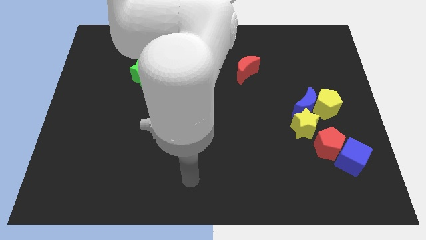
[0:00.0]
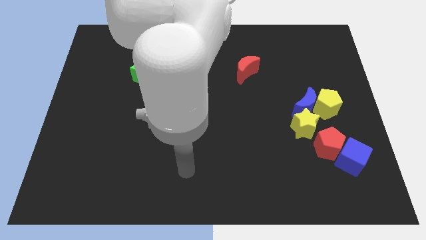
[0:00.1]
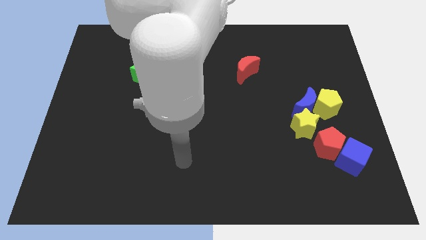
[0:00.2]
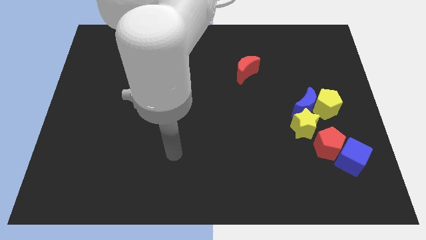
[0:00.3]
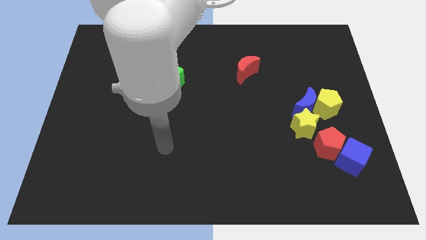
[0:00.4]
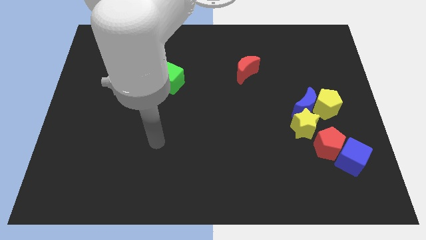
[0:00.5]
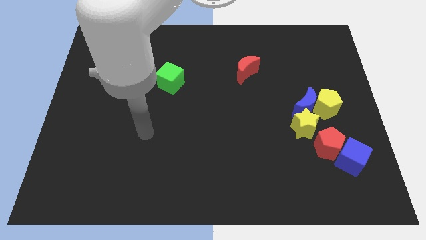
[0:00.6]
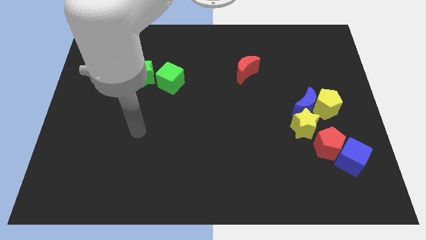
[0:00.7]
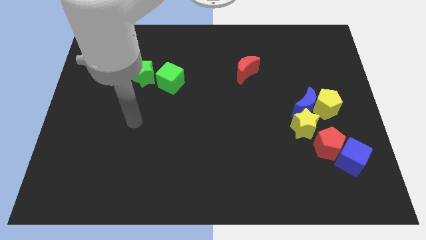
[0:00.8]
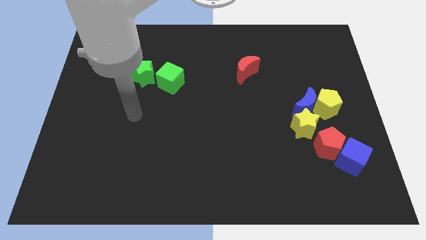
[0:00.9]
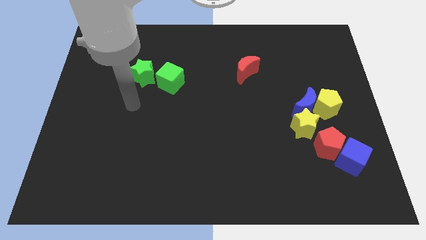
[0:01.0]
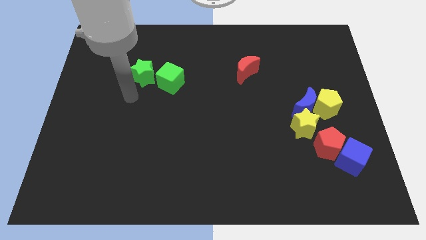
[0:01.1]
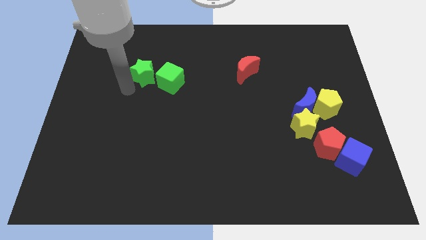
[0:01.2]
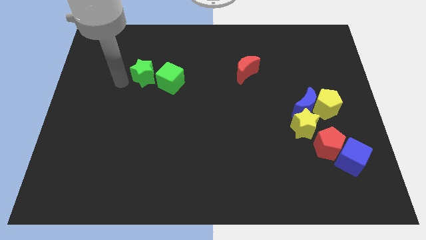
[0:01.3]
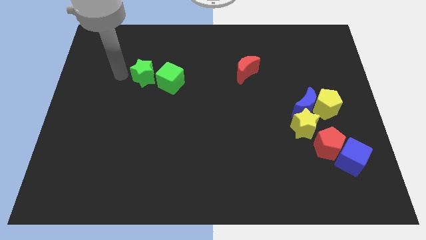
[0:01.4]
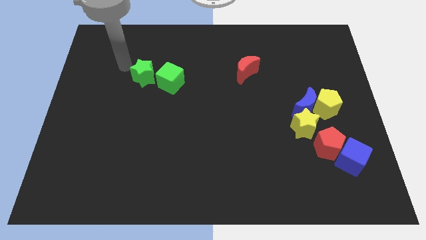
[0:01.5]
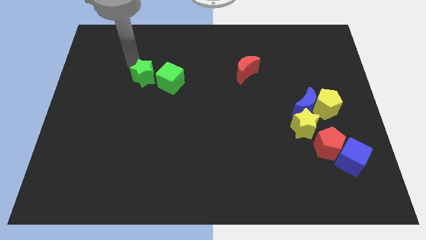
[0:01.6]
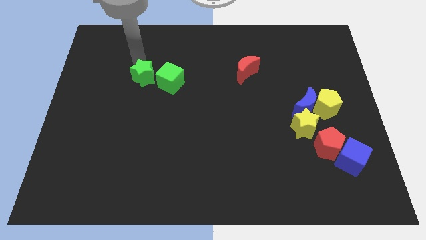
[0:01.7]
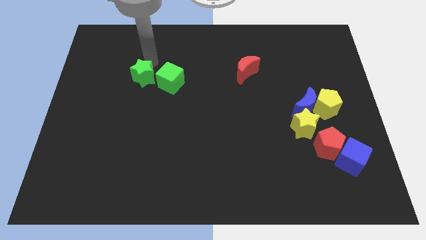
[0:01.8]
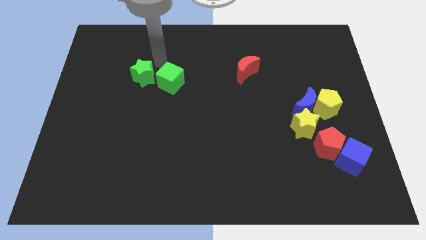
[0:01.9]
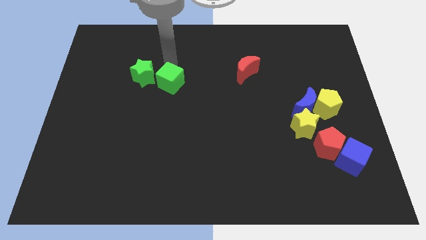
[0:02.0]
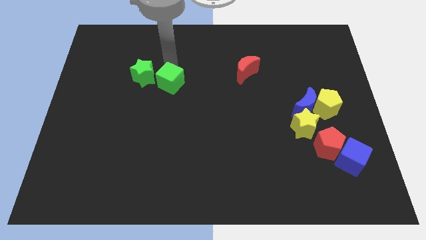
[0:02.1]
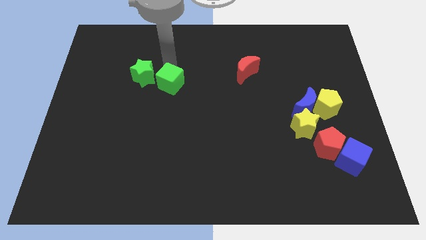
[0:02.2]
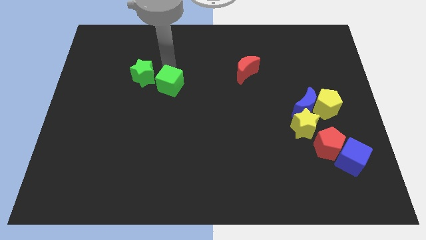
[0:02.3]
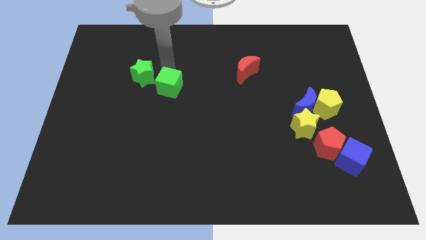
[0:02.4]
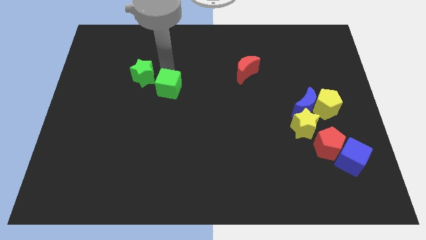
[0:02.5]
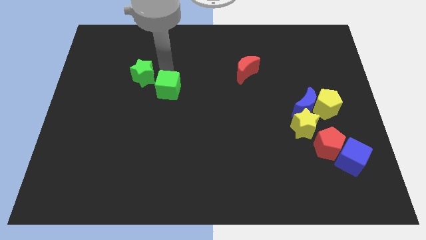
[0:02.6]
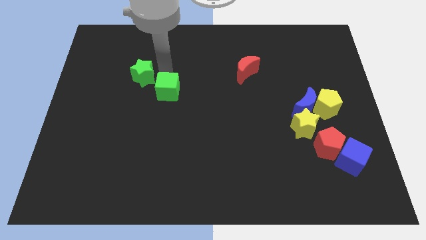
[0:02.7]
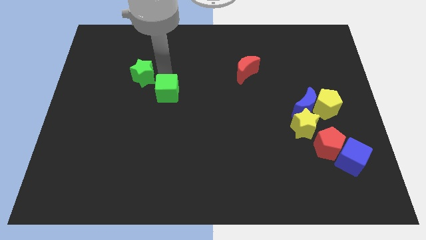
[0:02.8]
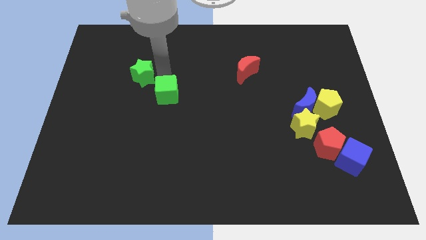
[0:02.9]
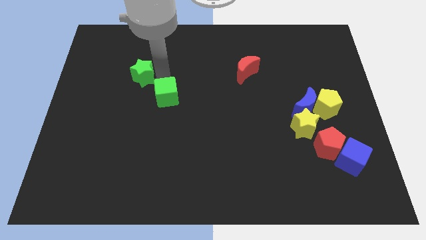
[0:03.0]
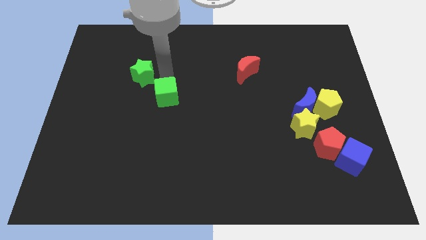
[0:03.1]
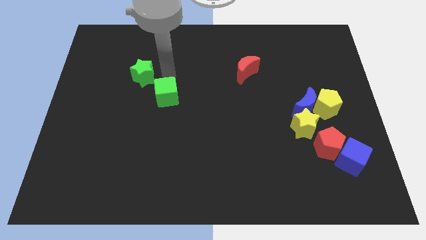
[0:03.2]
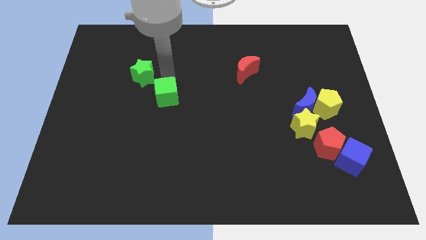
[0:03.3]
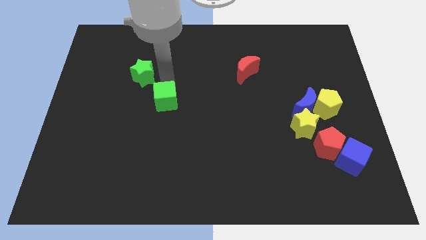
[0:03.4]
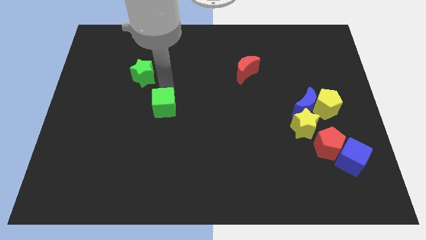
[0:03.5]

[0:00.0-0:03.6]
slightly slide the green cube downwards

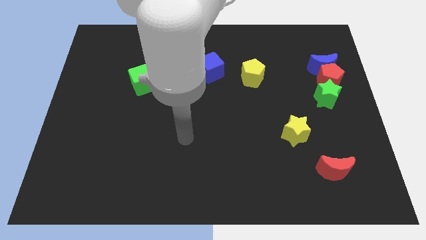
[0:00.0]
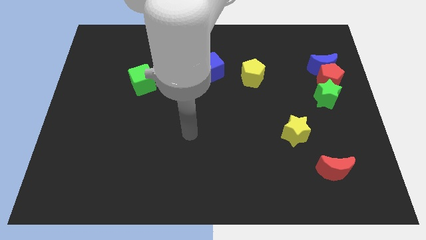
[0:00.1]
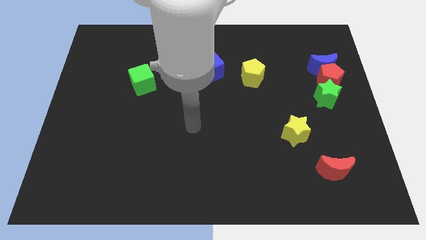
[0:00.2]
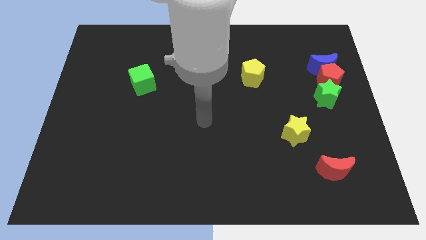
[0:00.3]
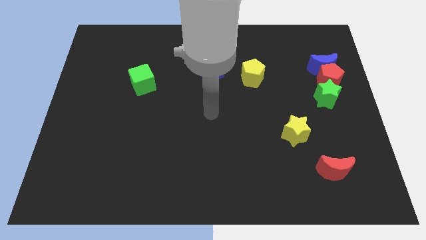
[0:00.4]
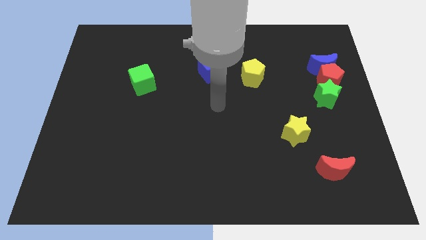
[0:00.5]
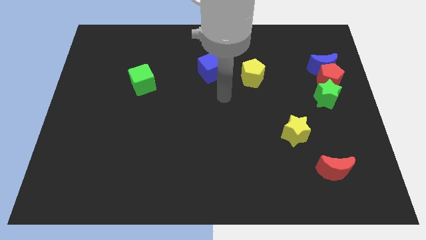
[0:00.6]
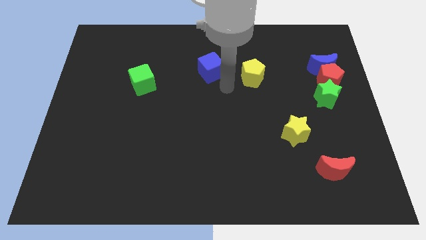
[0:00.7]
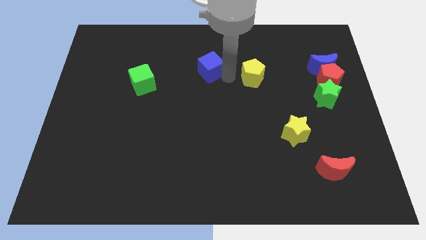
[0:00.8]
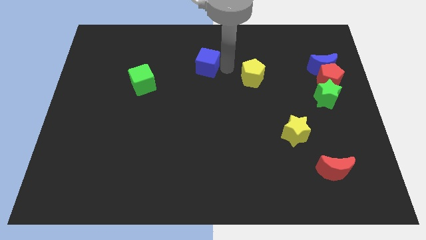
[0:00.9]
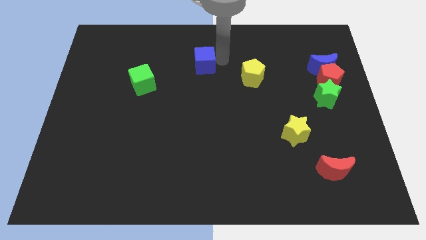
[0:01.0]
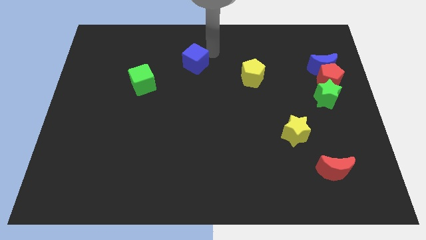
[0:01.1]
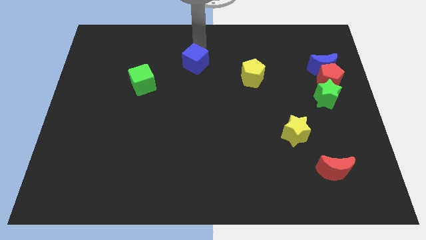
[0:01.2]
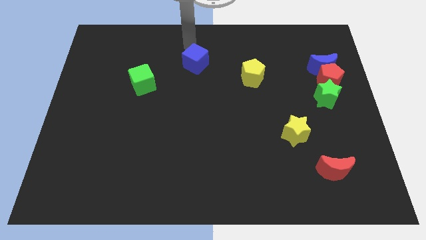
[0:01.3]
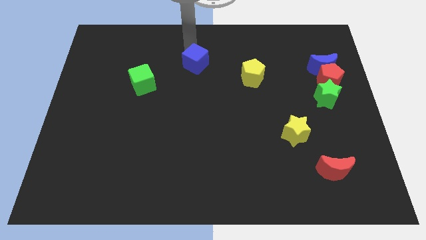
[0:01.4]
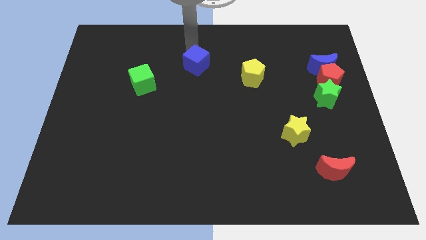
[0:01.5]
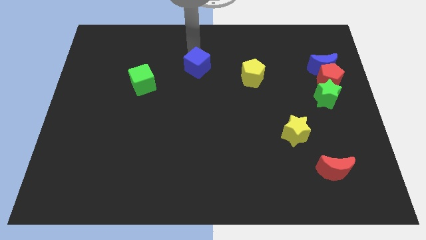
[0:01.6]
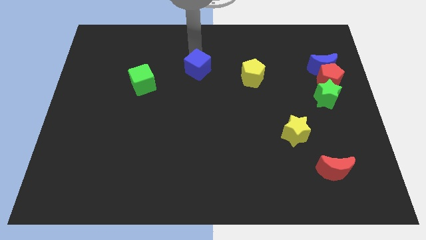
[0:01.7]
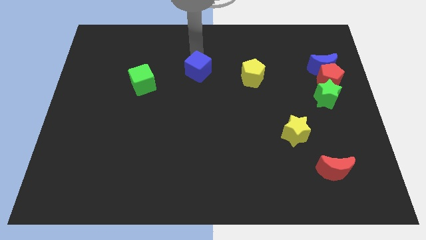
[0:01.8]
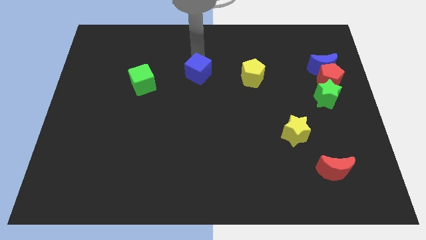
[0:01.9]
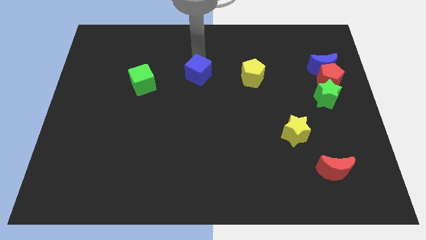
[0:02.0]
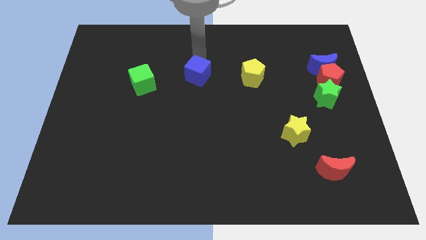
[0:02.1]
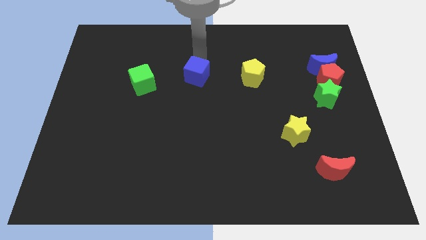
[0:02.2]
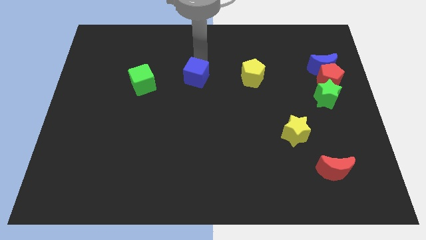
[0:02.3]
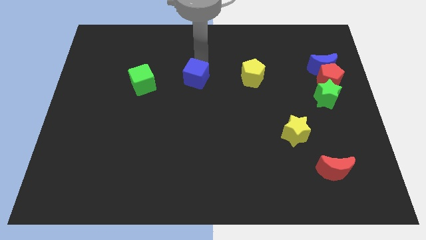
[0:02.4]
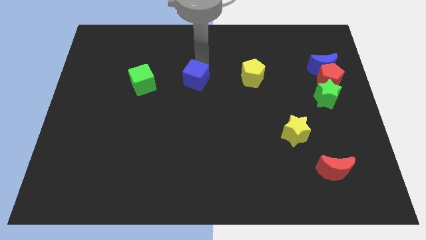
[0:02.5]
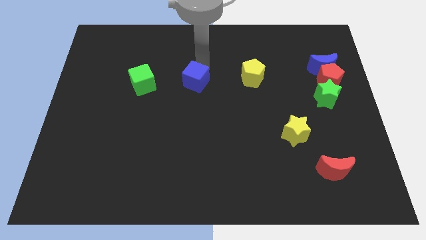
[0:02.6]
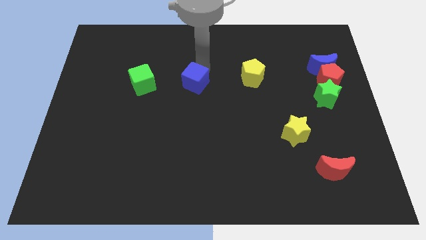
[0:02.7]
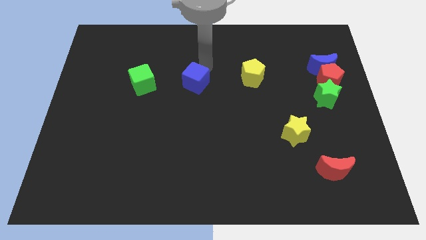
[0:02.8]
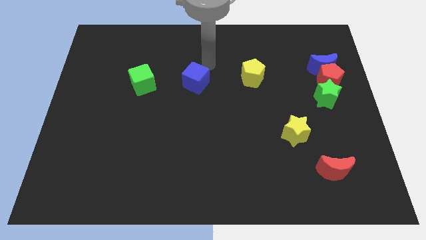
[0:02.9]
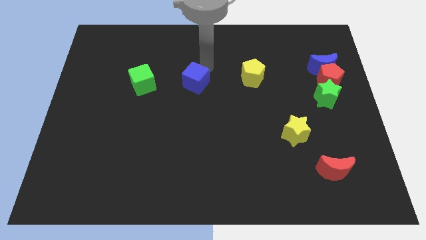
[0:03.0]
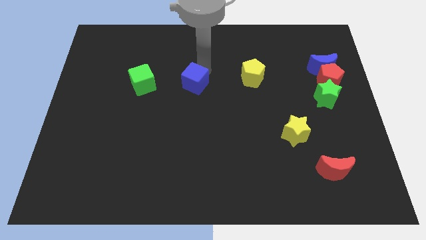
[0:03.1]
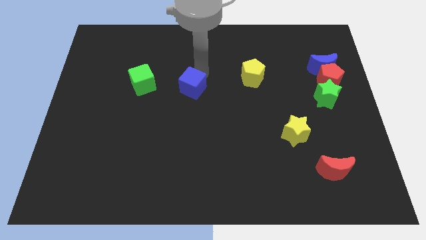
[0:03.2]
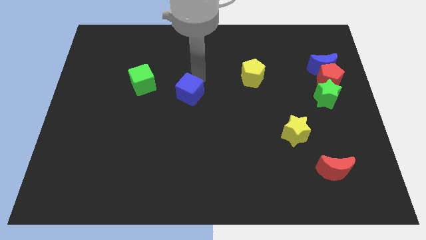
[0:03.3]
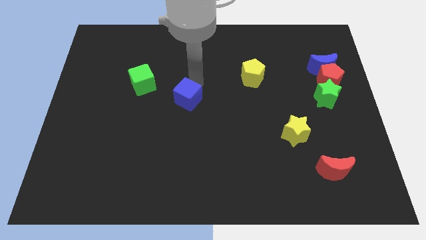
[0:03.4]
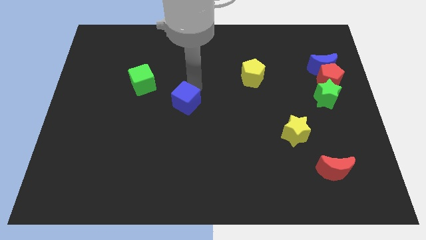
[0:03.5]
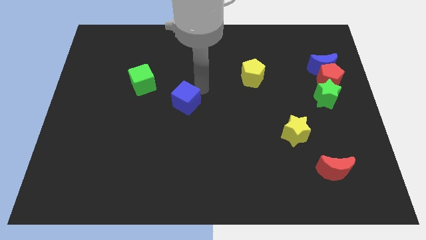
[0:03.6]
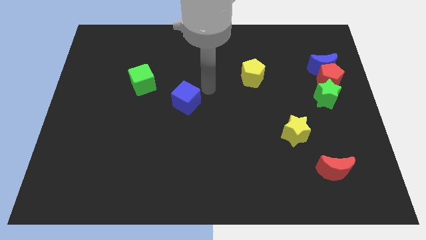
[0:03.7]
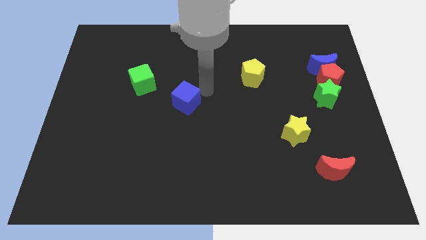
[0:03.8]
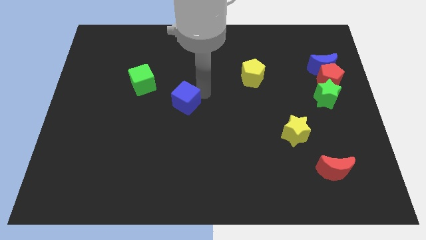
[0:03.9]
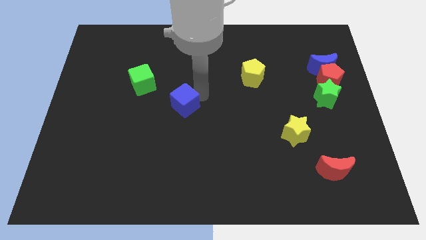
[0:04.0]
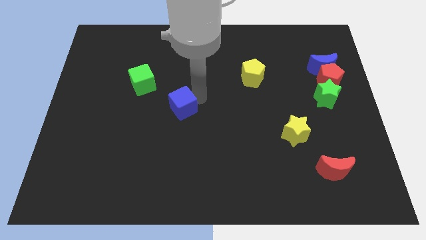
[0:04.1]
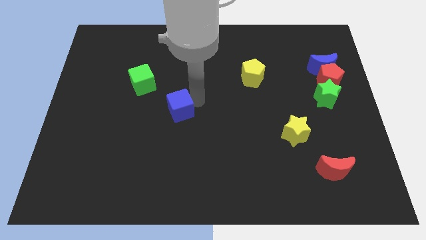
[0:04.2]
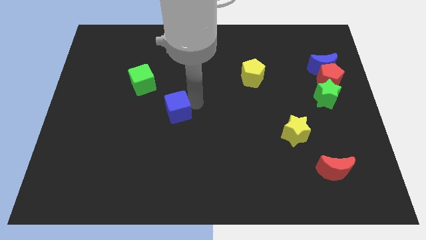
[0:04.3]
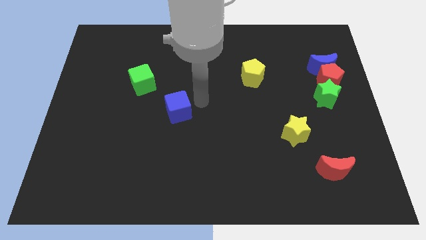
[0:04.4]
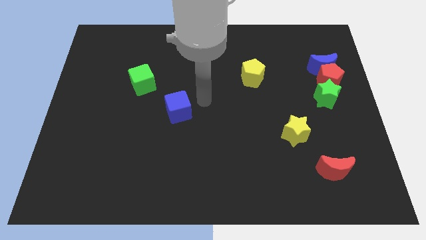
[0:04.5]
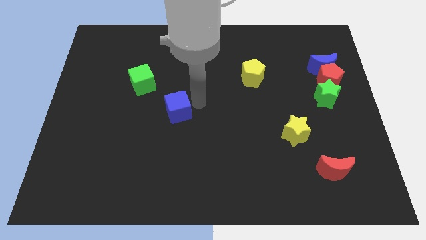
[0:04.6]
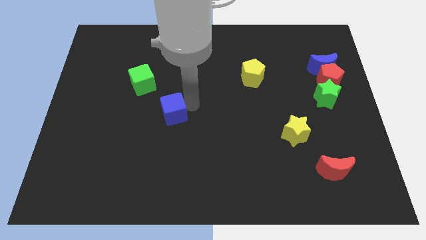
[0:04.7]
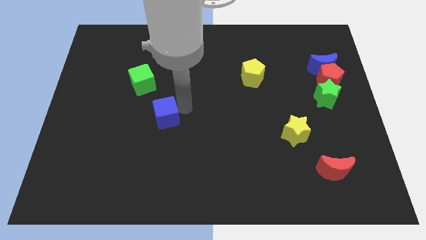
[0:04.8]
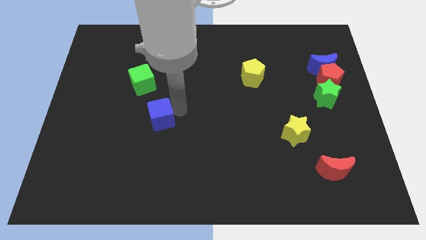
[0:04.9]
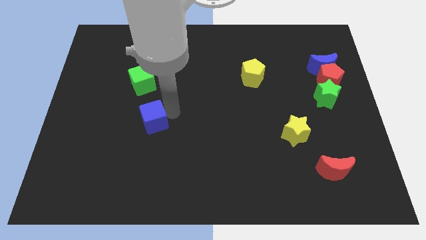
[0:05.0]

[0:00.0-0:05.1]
move the blue cube downwards and then left
